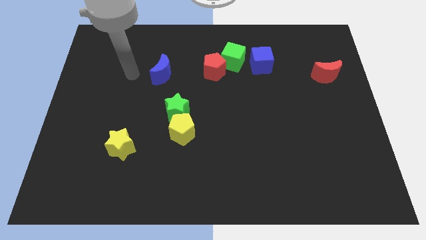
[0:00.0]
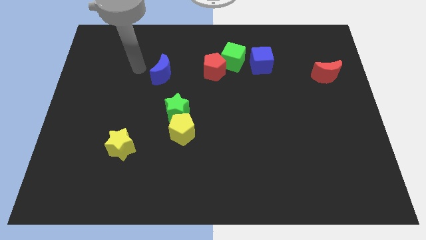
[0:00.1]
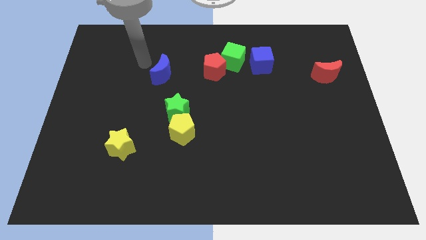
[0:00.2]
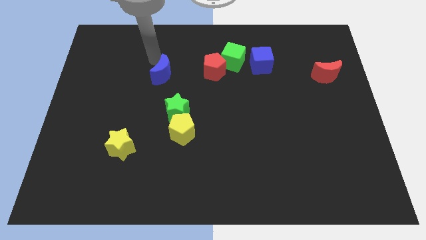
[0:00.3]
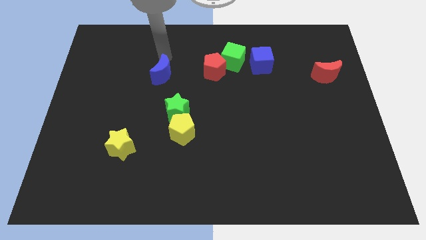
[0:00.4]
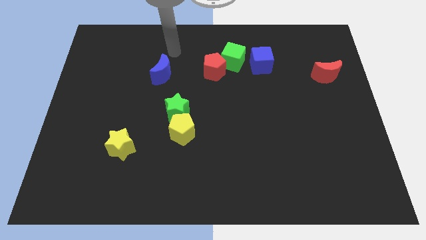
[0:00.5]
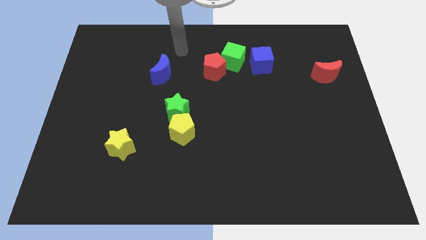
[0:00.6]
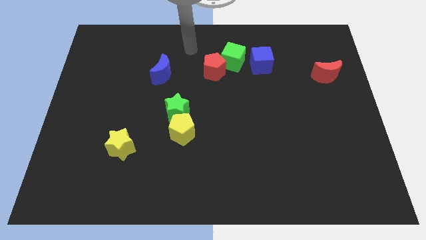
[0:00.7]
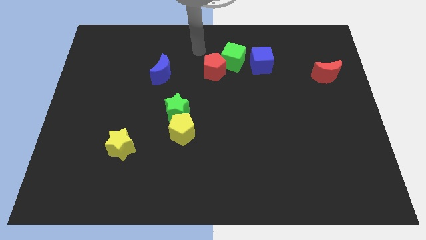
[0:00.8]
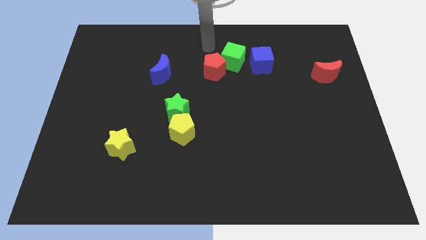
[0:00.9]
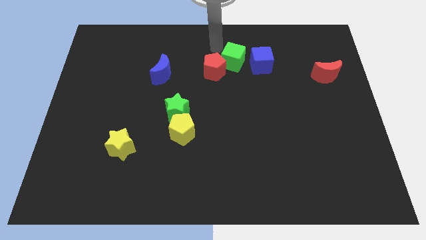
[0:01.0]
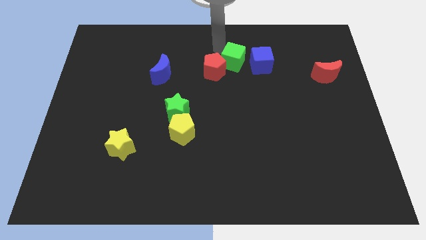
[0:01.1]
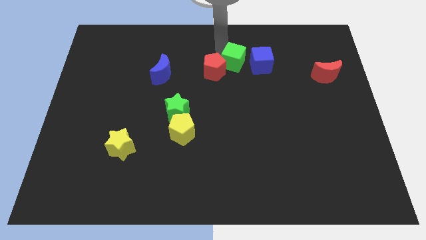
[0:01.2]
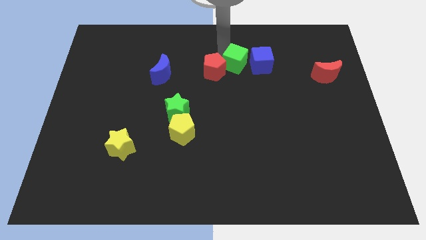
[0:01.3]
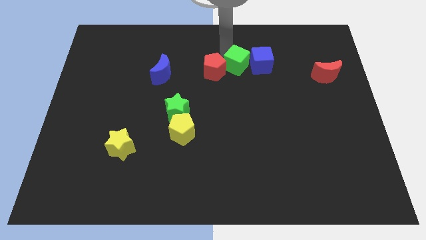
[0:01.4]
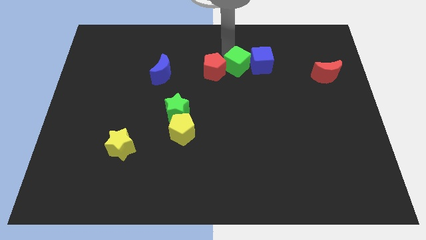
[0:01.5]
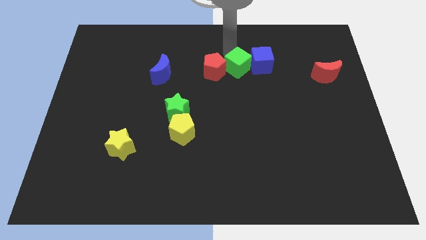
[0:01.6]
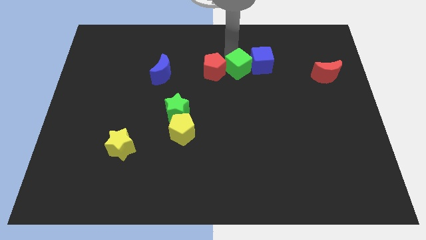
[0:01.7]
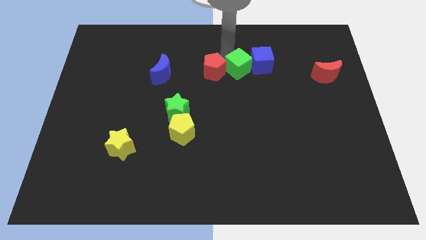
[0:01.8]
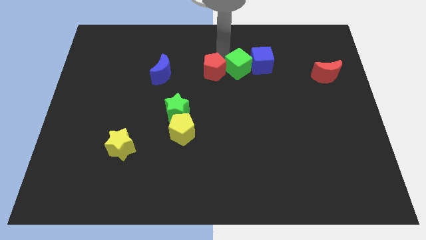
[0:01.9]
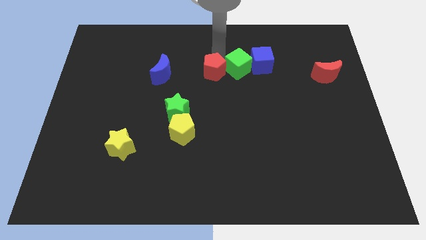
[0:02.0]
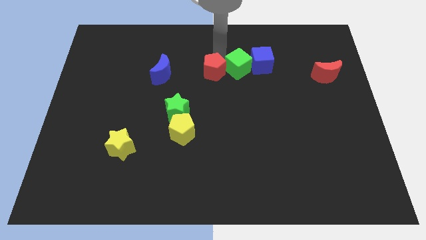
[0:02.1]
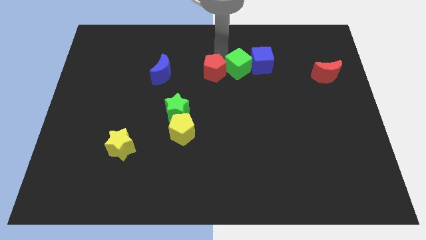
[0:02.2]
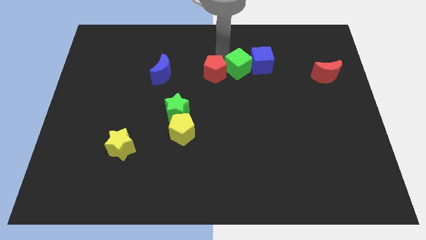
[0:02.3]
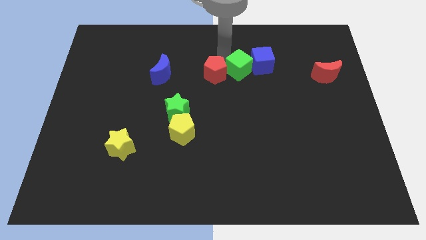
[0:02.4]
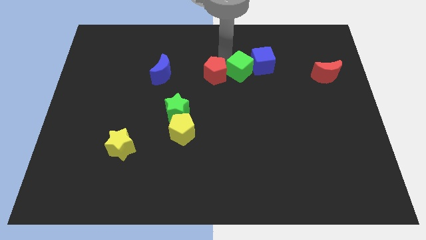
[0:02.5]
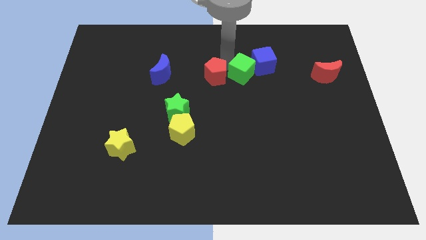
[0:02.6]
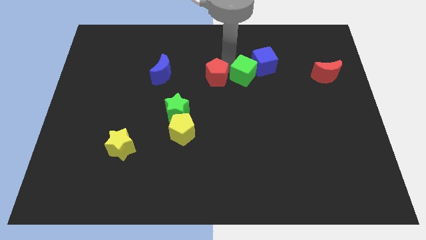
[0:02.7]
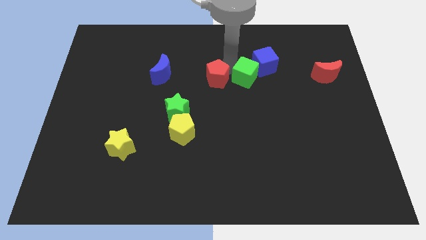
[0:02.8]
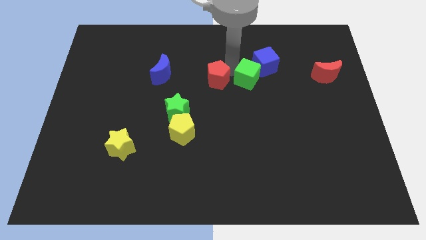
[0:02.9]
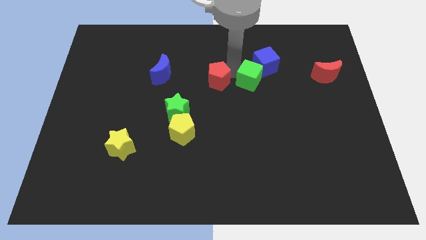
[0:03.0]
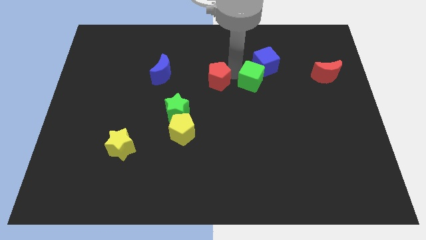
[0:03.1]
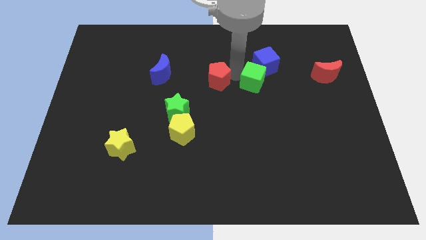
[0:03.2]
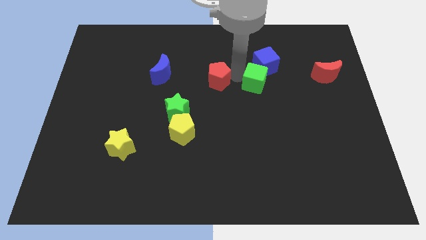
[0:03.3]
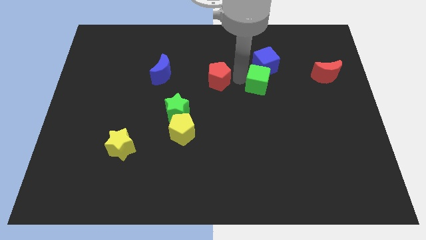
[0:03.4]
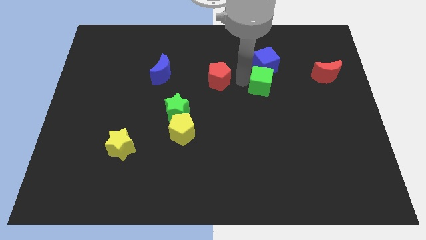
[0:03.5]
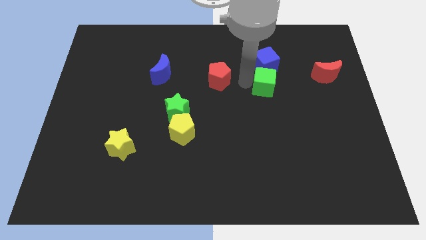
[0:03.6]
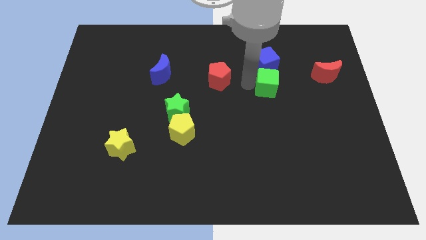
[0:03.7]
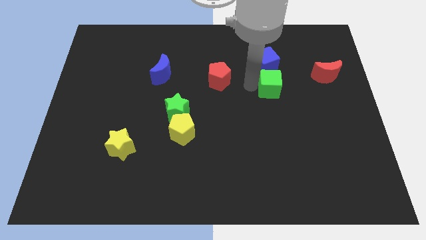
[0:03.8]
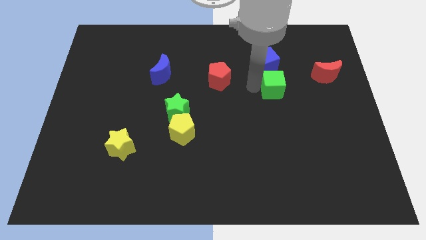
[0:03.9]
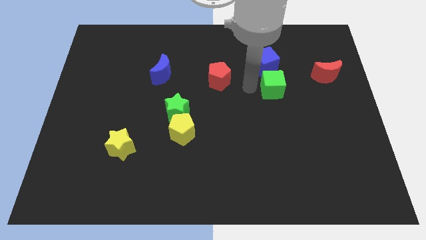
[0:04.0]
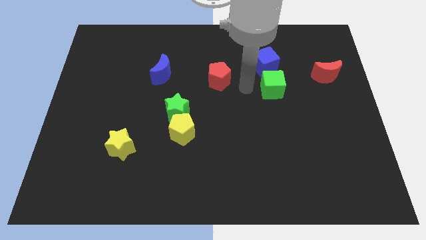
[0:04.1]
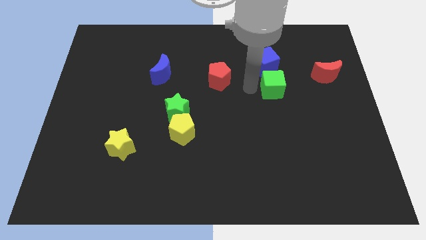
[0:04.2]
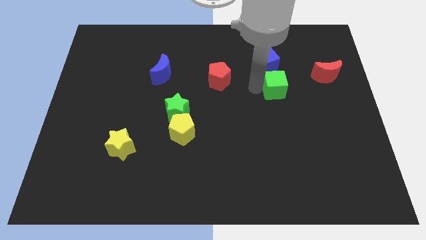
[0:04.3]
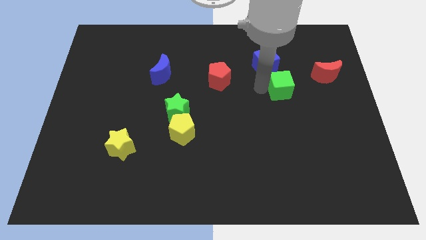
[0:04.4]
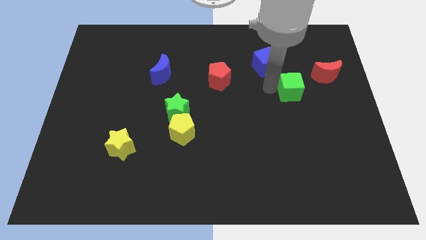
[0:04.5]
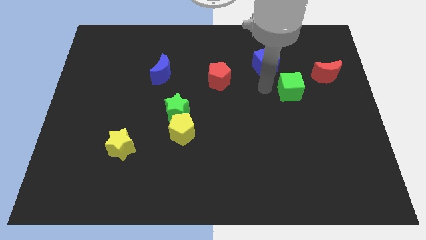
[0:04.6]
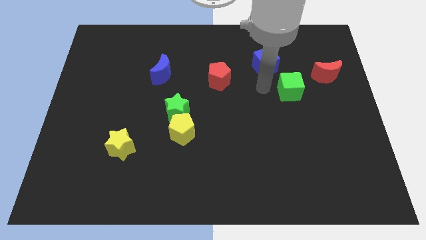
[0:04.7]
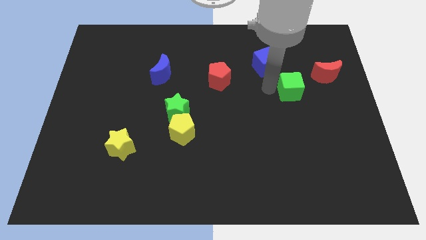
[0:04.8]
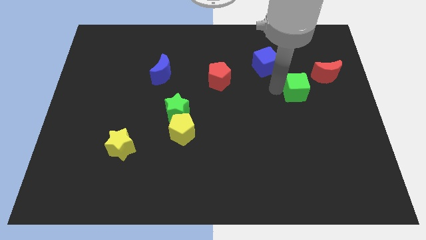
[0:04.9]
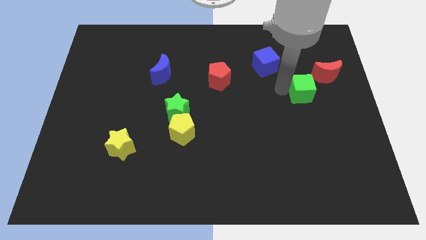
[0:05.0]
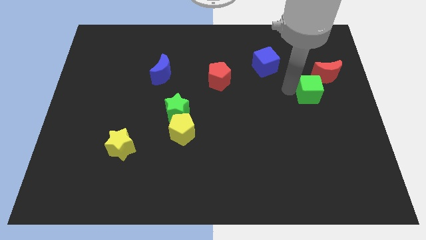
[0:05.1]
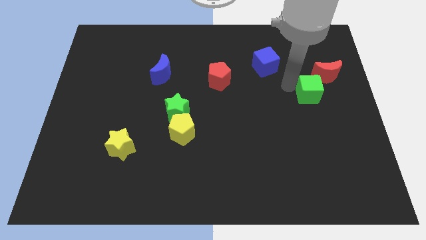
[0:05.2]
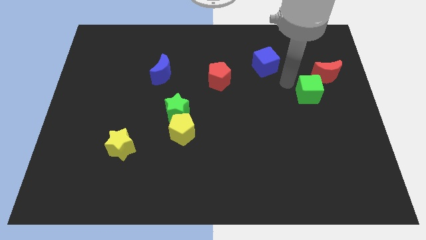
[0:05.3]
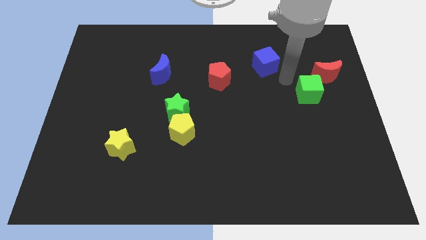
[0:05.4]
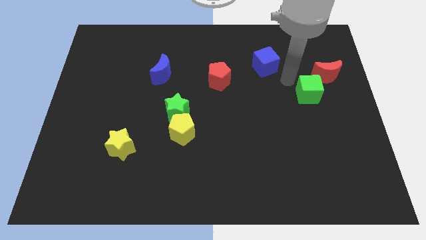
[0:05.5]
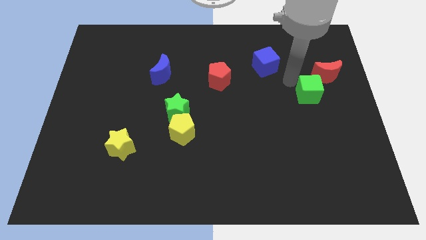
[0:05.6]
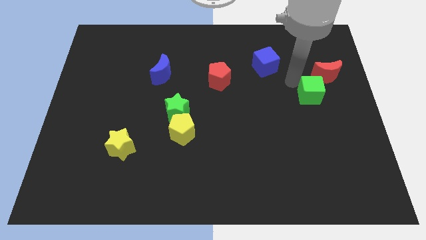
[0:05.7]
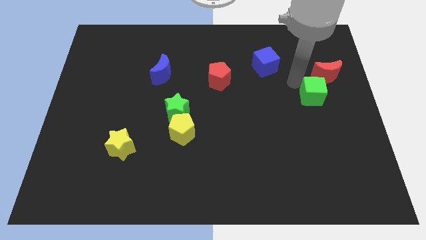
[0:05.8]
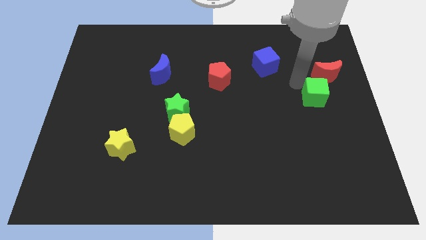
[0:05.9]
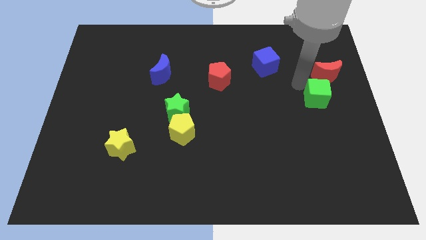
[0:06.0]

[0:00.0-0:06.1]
push the green cube to the center right

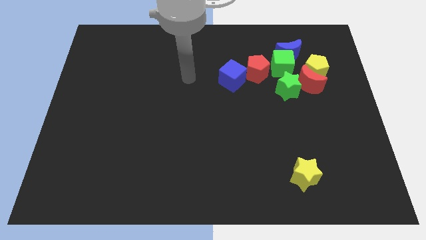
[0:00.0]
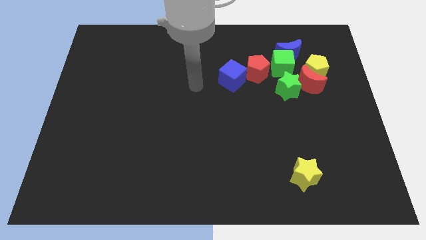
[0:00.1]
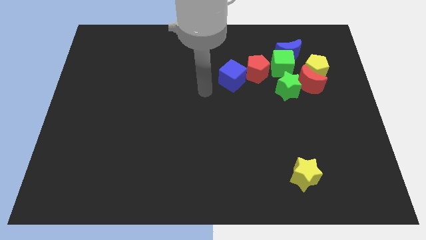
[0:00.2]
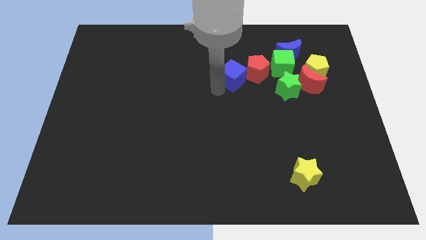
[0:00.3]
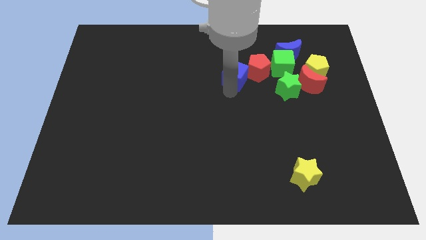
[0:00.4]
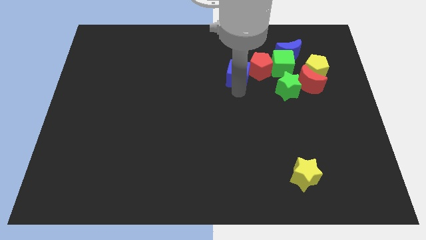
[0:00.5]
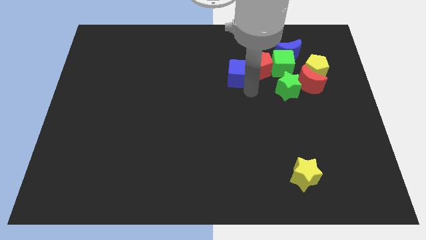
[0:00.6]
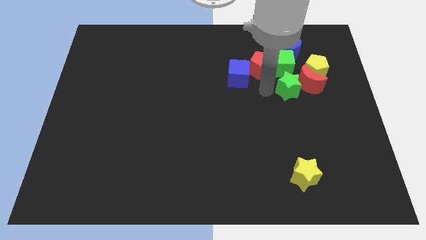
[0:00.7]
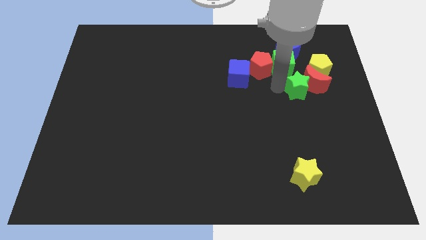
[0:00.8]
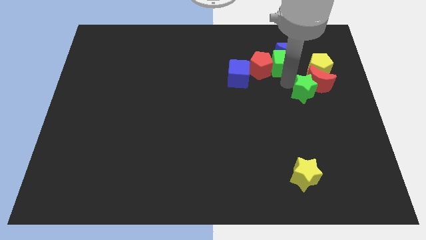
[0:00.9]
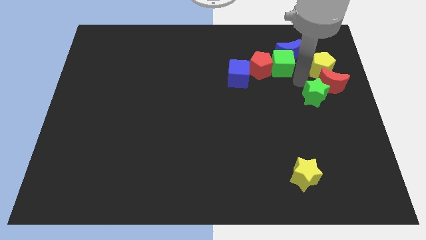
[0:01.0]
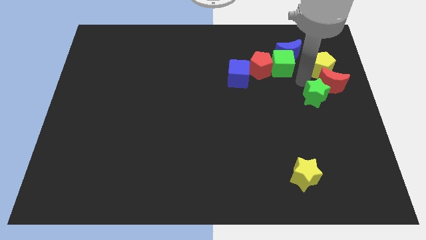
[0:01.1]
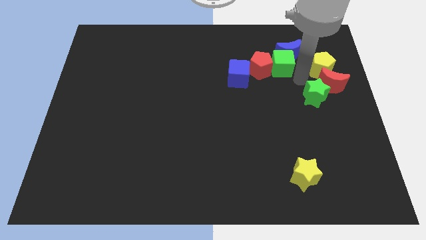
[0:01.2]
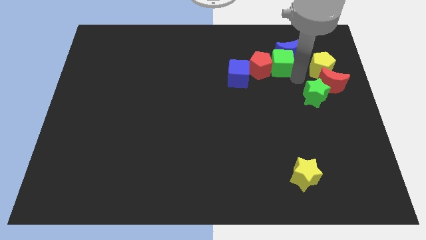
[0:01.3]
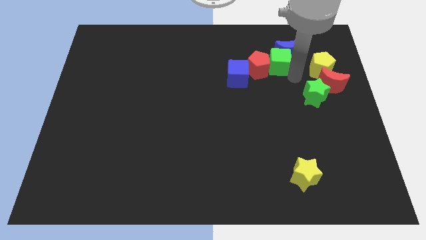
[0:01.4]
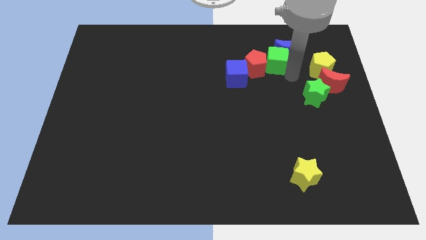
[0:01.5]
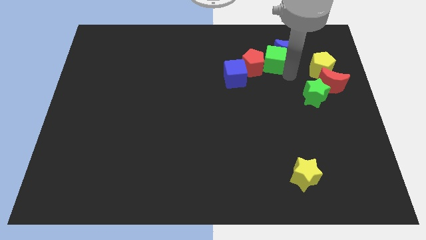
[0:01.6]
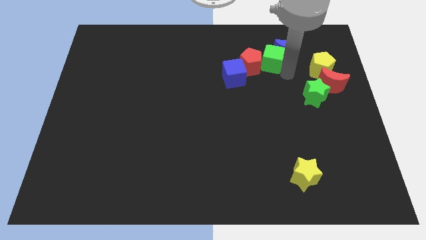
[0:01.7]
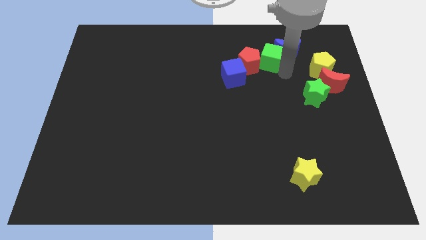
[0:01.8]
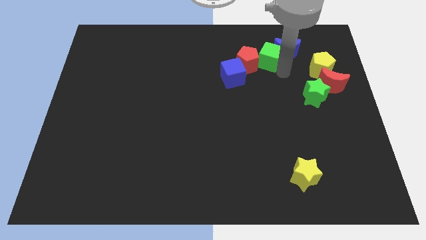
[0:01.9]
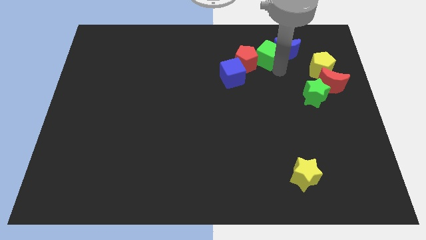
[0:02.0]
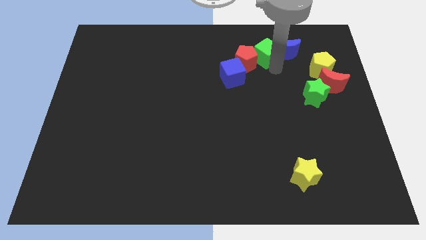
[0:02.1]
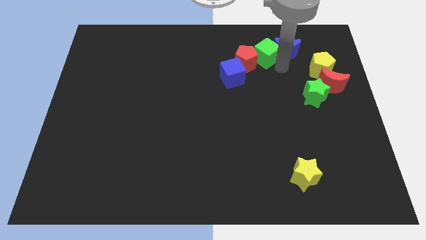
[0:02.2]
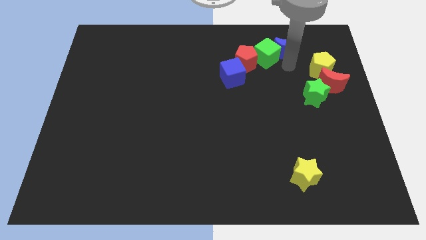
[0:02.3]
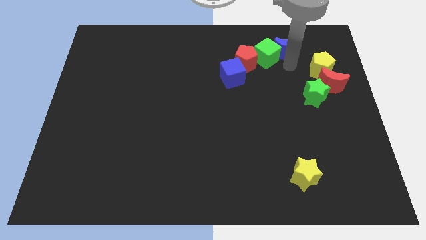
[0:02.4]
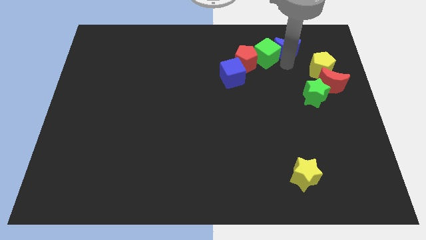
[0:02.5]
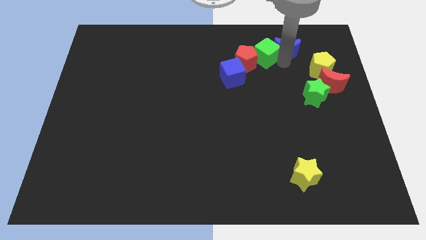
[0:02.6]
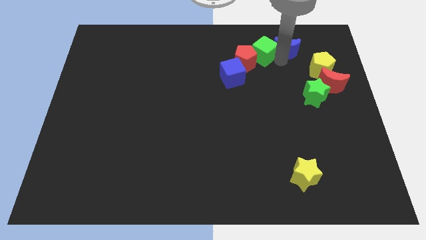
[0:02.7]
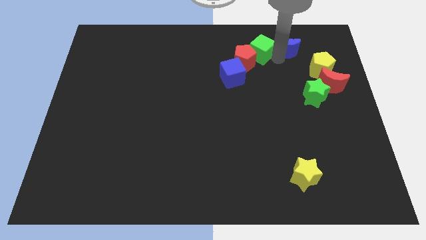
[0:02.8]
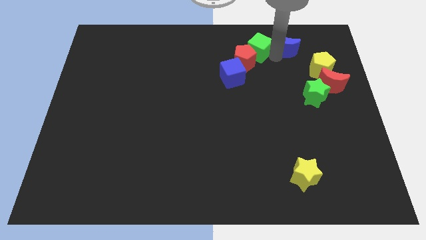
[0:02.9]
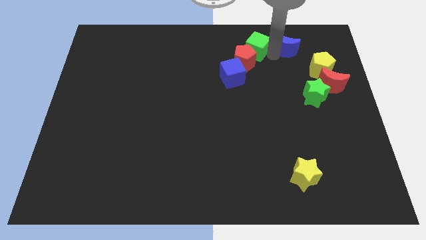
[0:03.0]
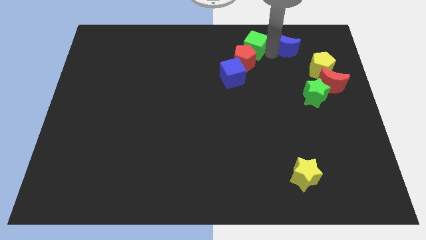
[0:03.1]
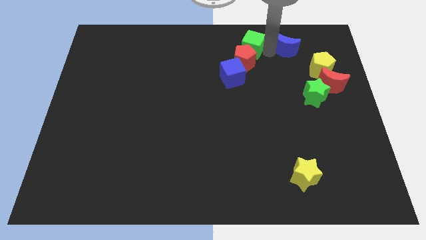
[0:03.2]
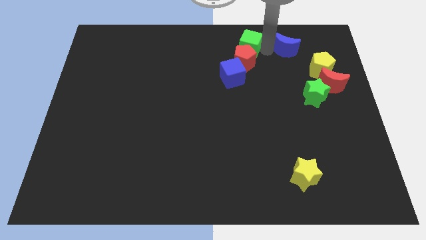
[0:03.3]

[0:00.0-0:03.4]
slide the green cube to the top
